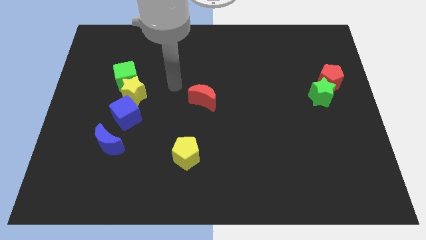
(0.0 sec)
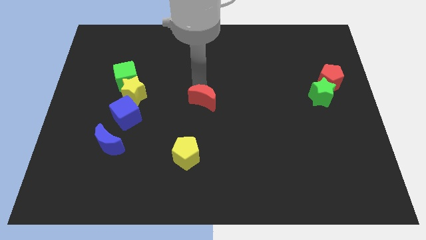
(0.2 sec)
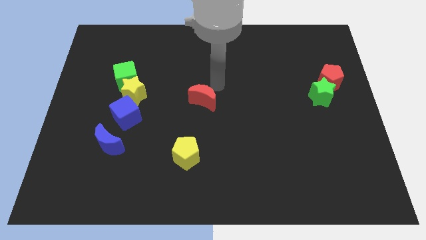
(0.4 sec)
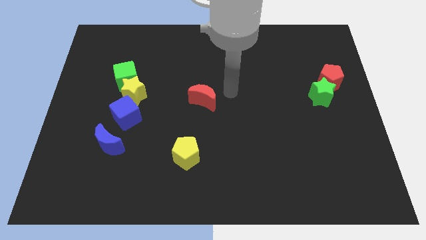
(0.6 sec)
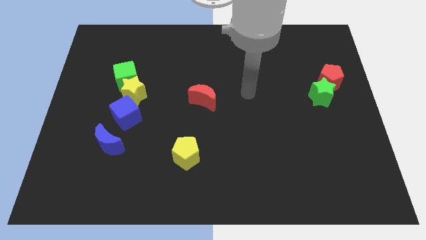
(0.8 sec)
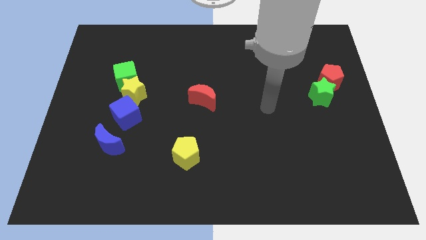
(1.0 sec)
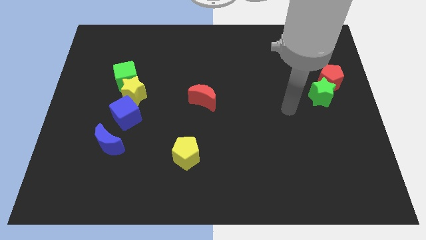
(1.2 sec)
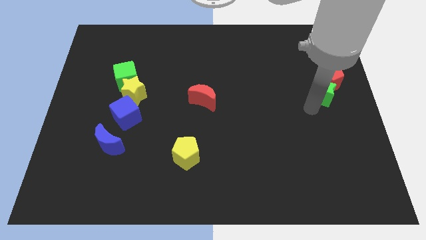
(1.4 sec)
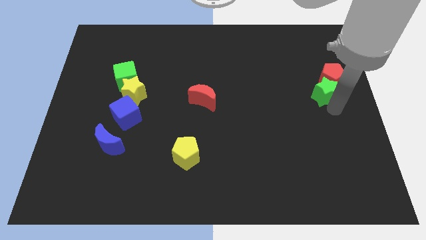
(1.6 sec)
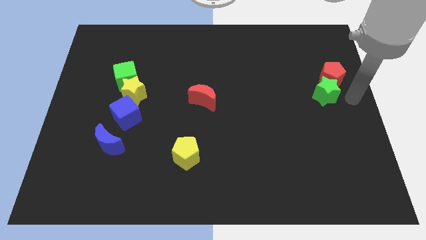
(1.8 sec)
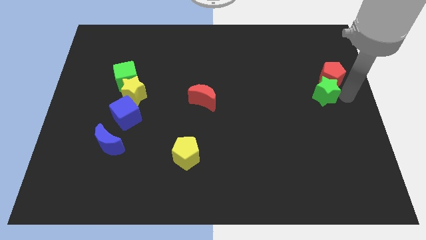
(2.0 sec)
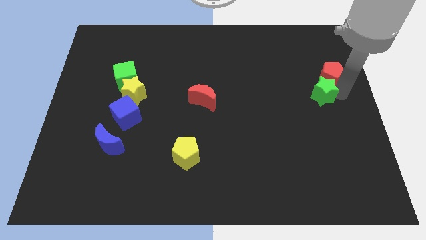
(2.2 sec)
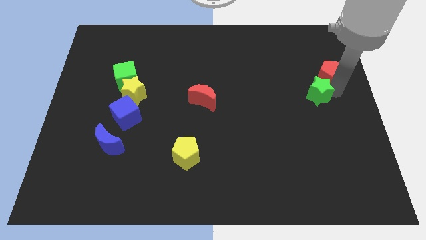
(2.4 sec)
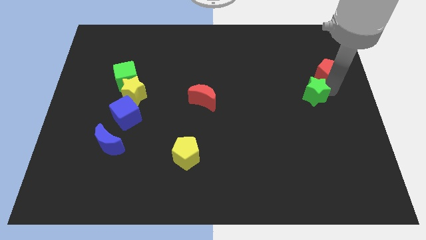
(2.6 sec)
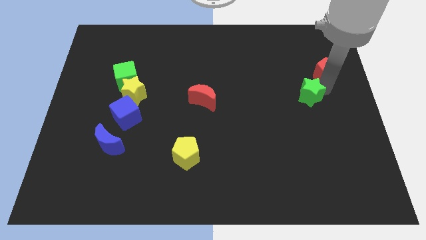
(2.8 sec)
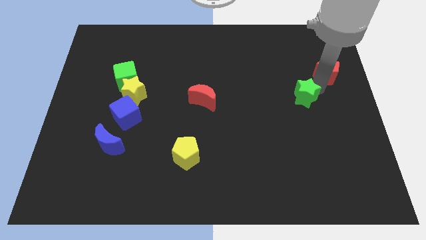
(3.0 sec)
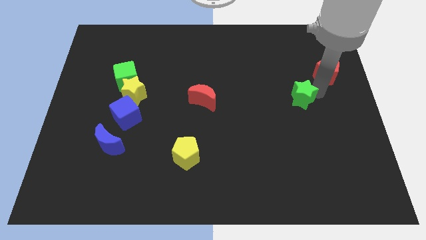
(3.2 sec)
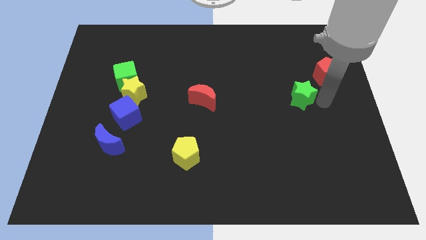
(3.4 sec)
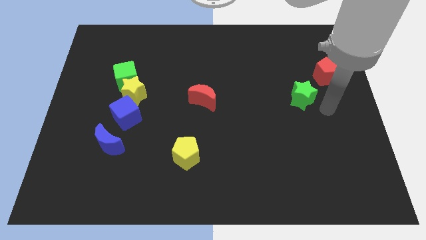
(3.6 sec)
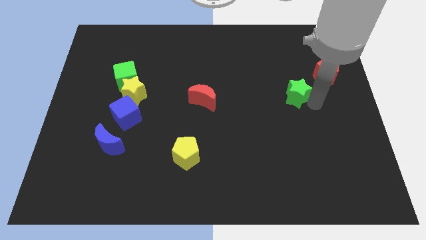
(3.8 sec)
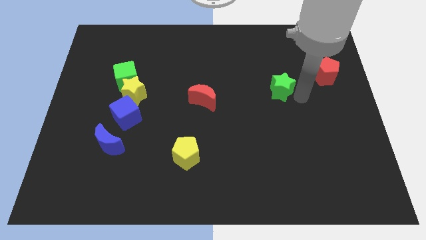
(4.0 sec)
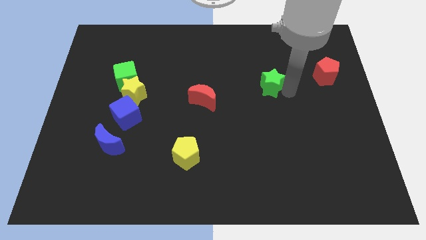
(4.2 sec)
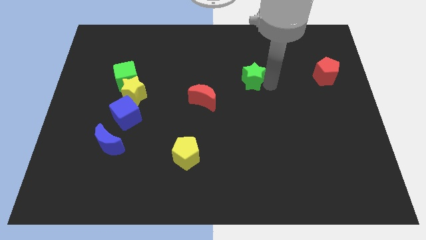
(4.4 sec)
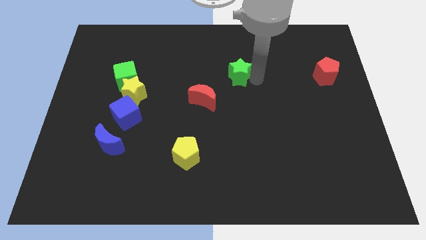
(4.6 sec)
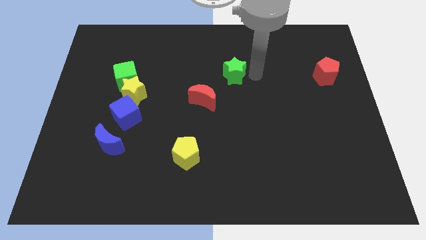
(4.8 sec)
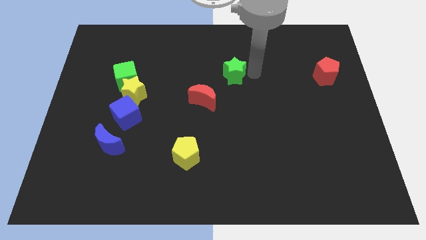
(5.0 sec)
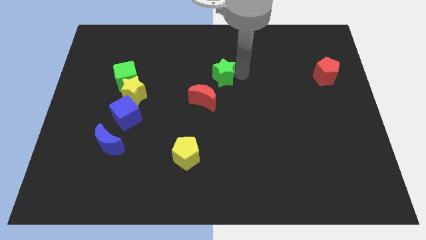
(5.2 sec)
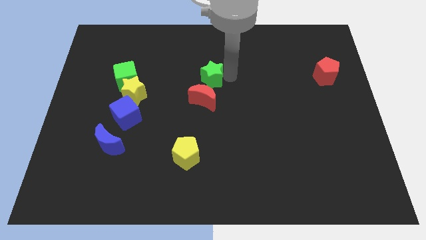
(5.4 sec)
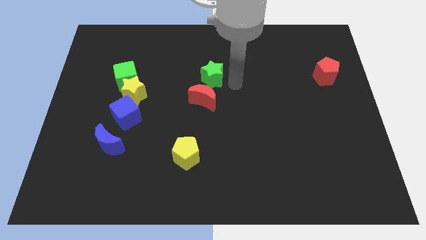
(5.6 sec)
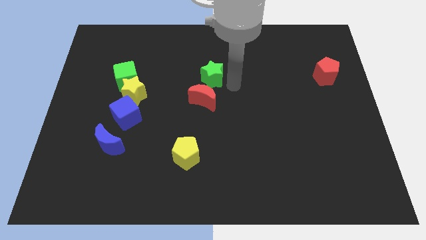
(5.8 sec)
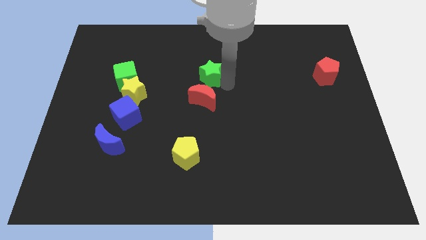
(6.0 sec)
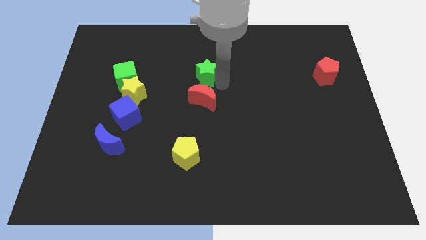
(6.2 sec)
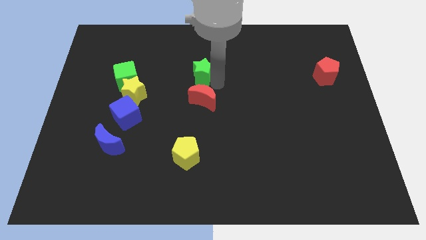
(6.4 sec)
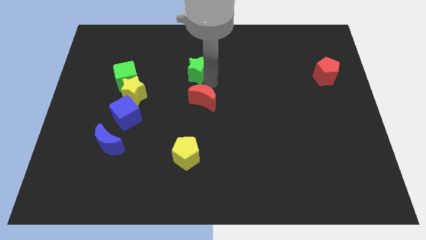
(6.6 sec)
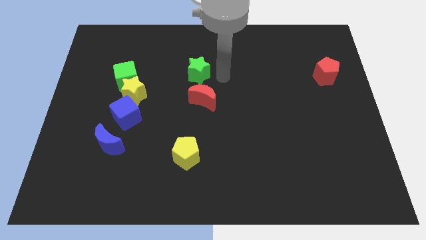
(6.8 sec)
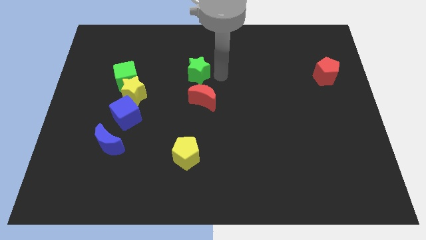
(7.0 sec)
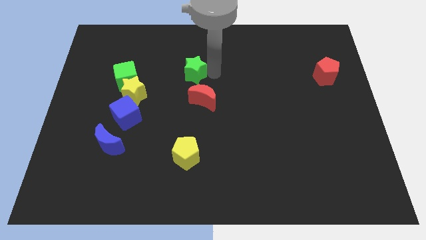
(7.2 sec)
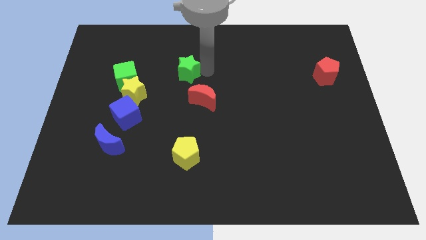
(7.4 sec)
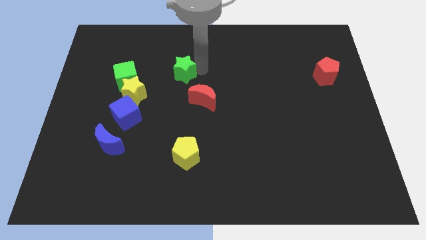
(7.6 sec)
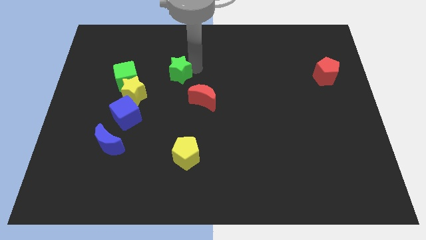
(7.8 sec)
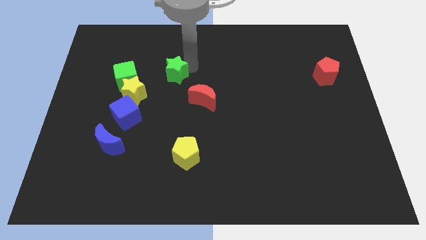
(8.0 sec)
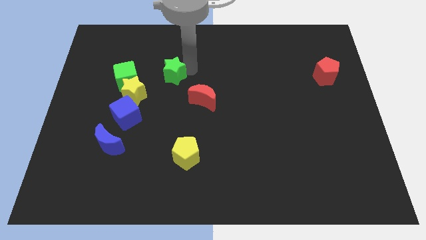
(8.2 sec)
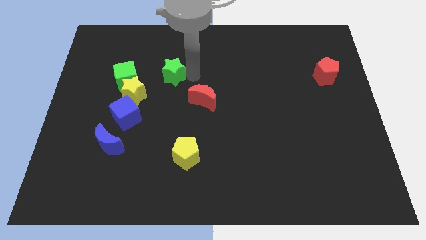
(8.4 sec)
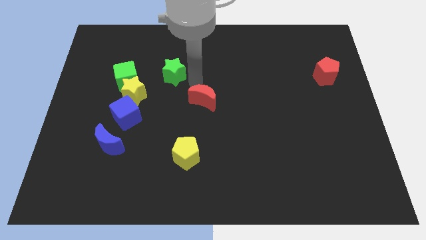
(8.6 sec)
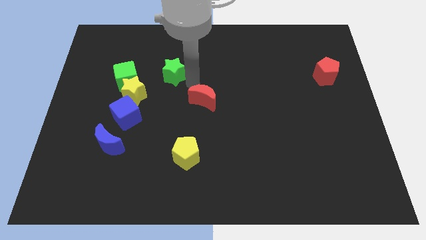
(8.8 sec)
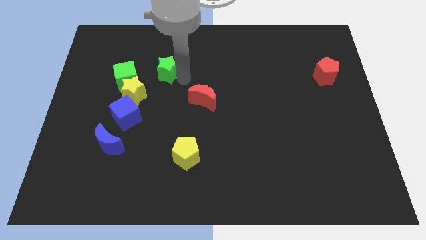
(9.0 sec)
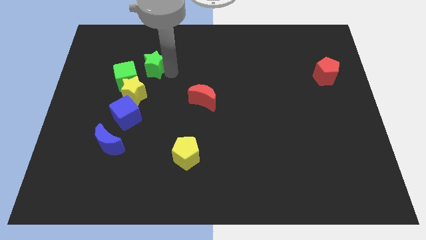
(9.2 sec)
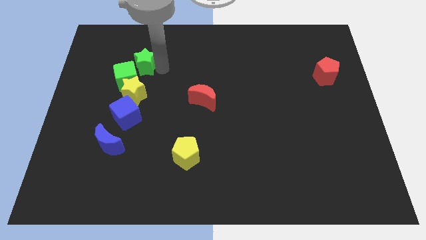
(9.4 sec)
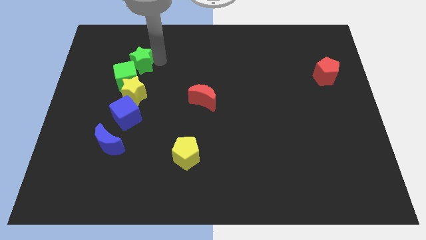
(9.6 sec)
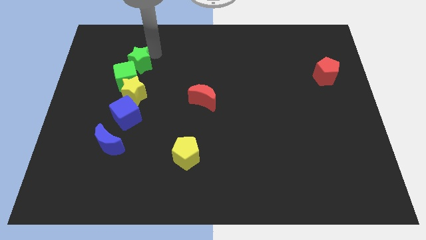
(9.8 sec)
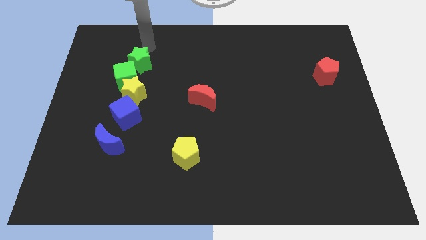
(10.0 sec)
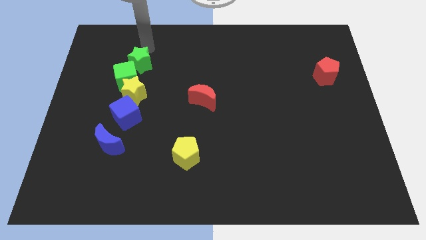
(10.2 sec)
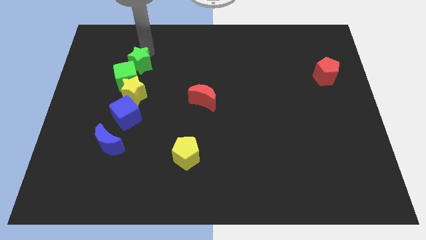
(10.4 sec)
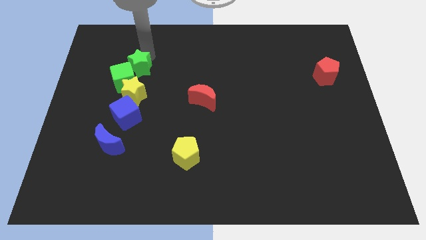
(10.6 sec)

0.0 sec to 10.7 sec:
push the green star to the top of the blue cube

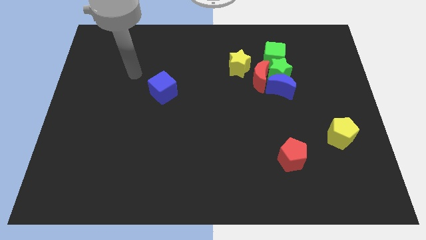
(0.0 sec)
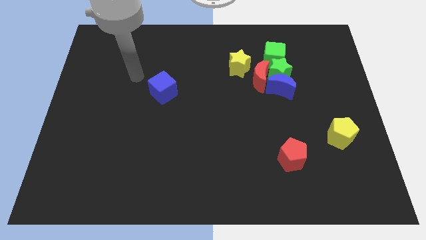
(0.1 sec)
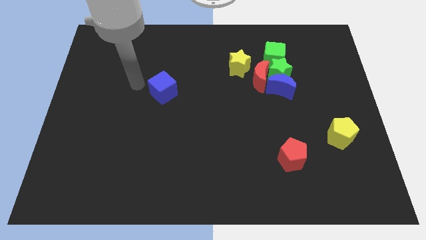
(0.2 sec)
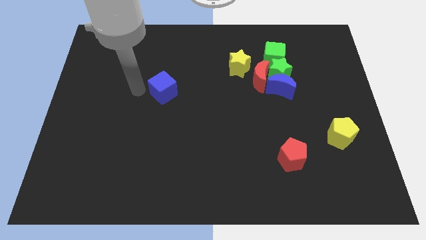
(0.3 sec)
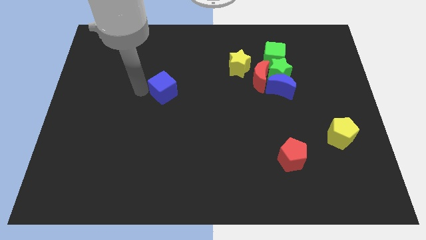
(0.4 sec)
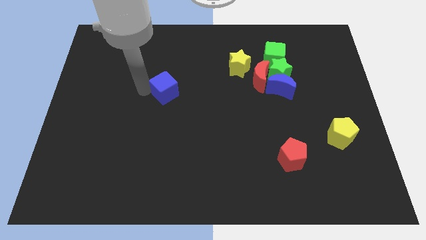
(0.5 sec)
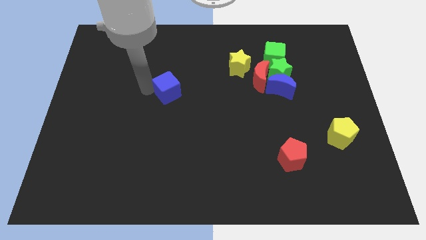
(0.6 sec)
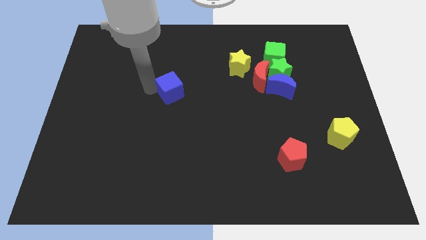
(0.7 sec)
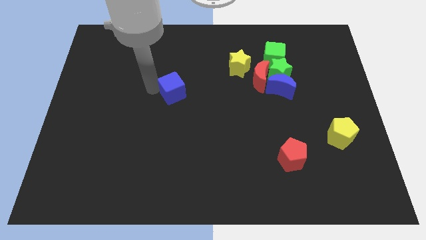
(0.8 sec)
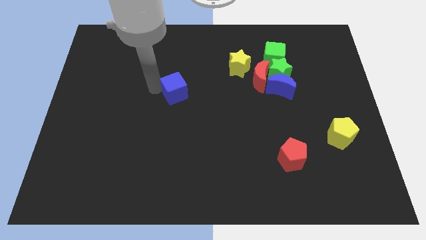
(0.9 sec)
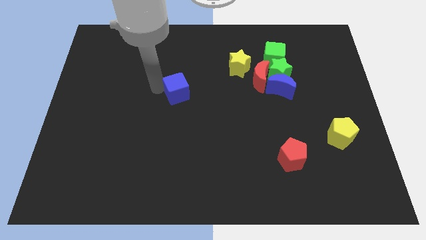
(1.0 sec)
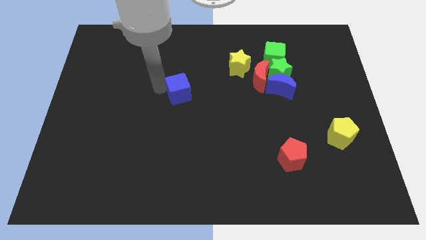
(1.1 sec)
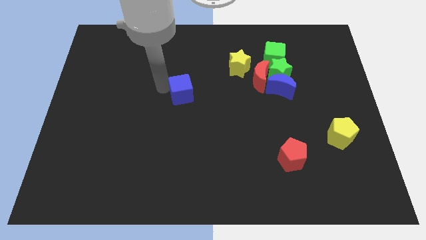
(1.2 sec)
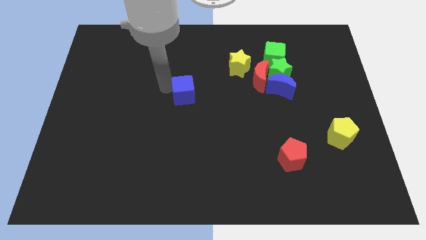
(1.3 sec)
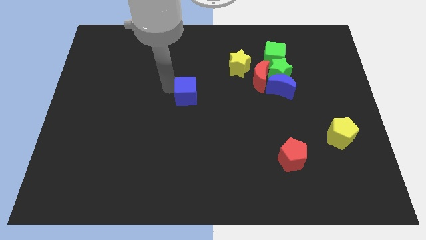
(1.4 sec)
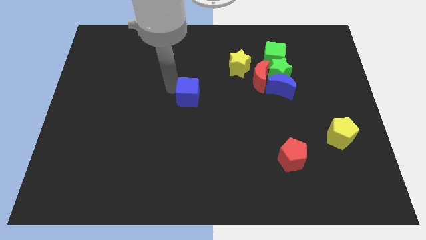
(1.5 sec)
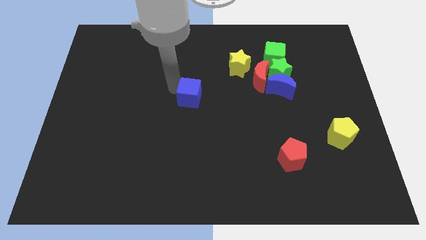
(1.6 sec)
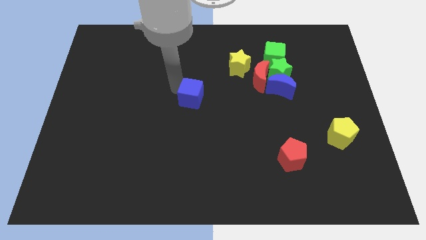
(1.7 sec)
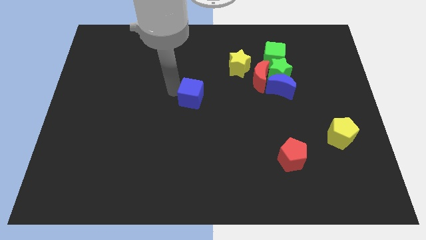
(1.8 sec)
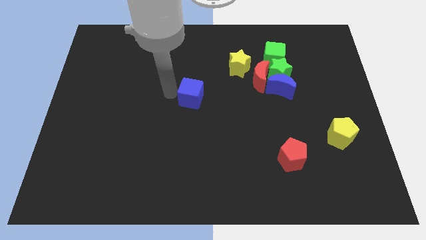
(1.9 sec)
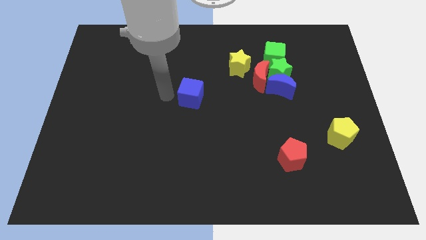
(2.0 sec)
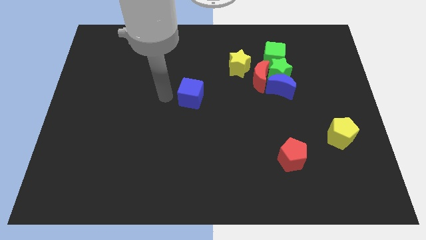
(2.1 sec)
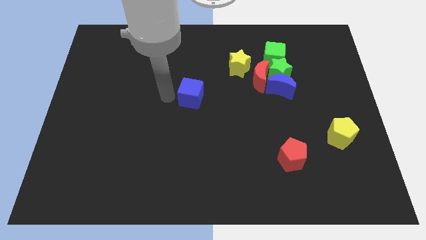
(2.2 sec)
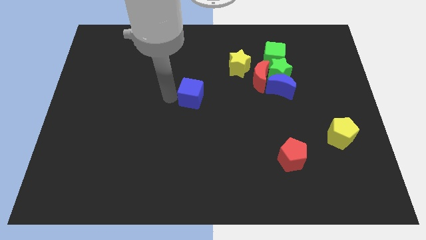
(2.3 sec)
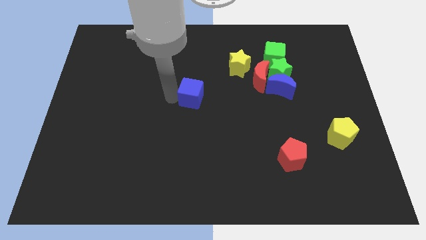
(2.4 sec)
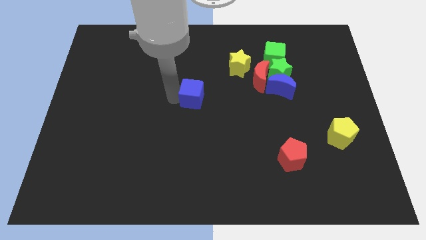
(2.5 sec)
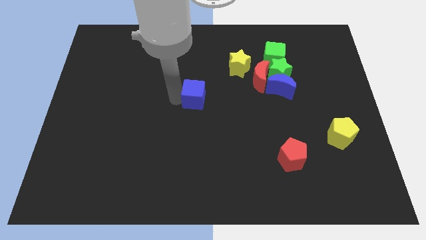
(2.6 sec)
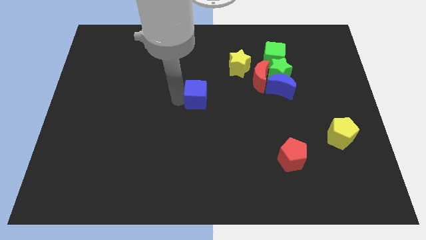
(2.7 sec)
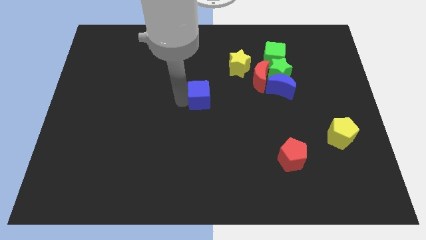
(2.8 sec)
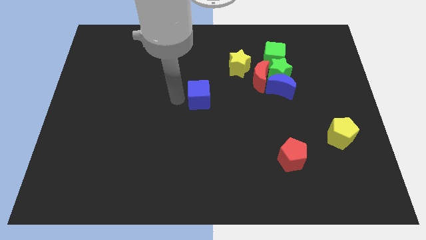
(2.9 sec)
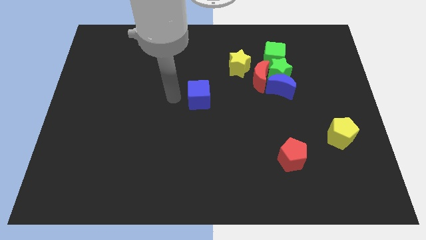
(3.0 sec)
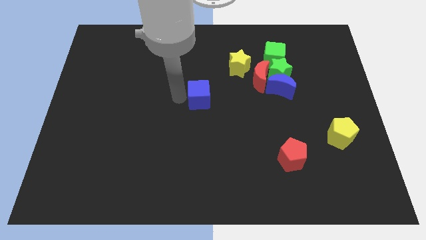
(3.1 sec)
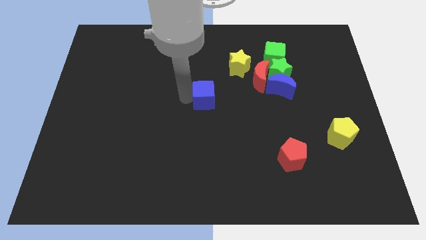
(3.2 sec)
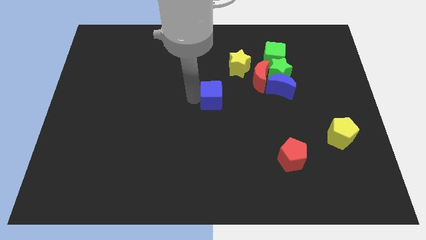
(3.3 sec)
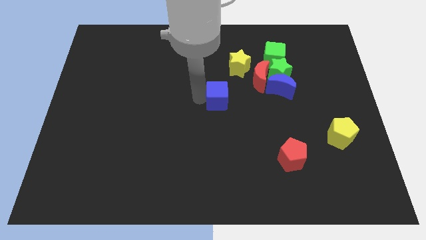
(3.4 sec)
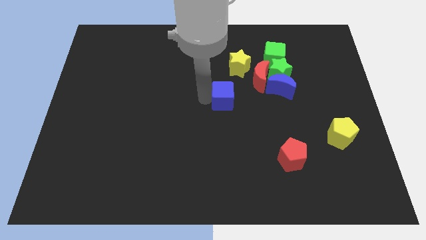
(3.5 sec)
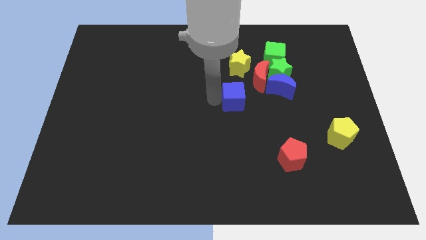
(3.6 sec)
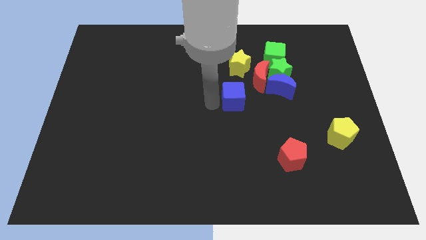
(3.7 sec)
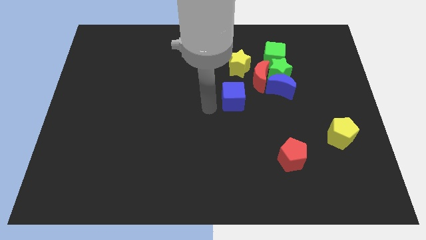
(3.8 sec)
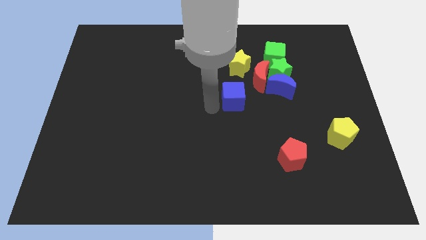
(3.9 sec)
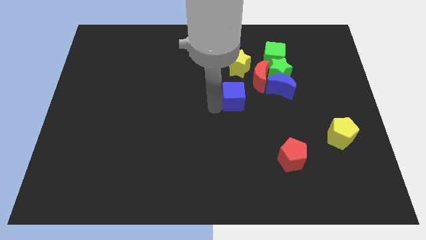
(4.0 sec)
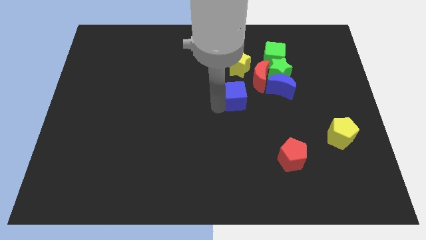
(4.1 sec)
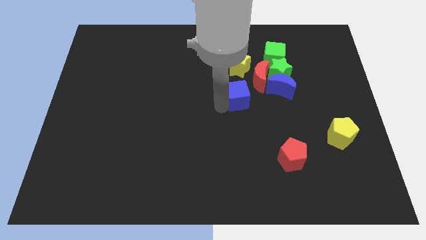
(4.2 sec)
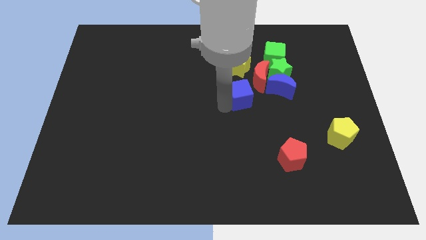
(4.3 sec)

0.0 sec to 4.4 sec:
slide the blue cube to the bottom left of the green star
